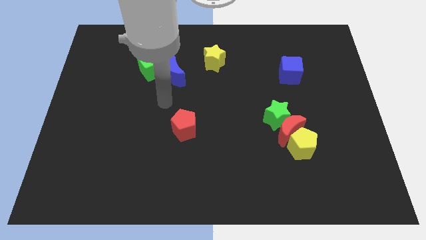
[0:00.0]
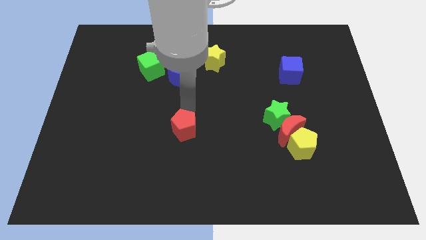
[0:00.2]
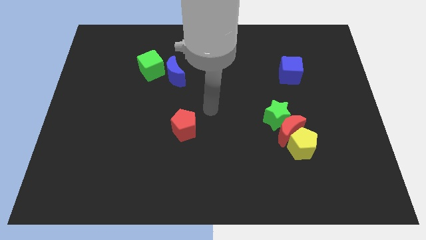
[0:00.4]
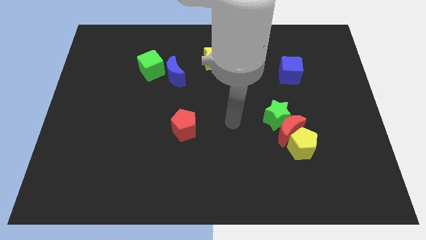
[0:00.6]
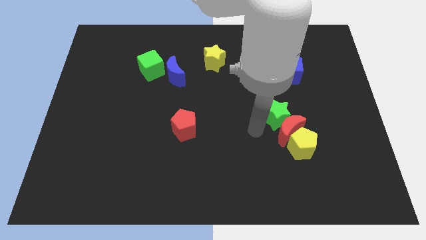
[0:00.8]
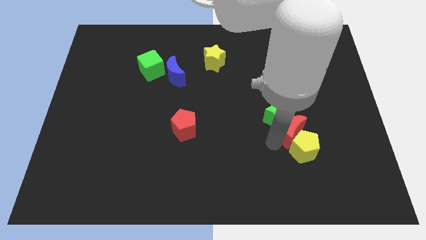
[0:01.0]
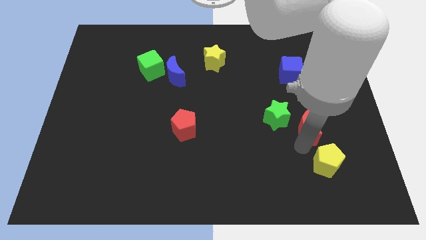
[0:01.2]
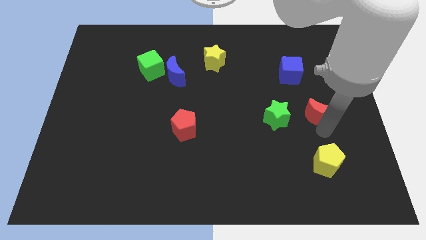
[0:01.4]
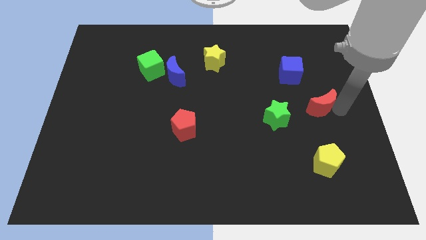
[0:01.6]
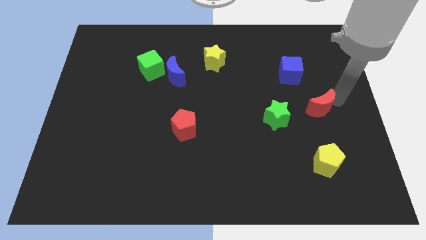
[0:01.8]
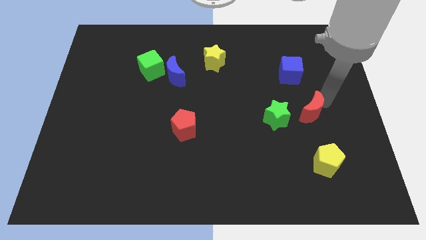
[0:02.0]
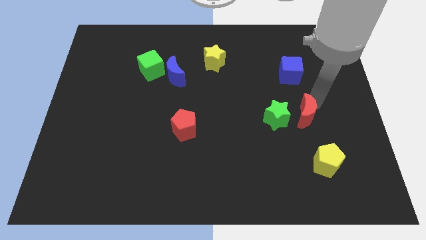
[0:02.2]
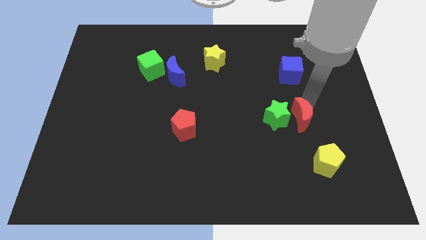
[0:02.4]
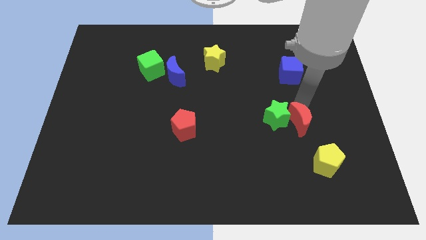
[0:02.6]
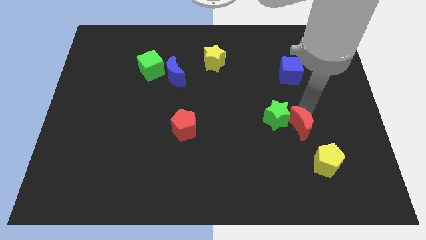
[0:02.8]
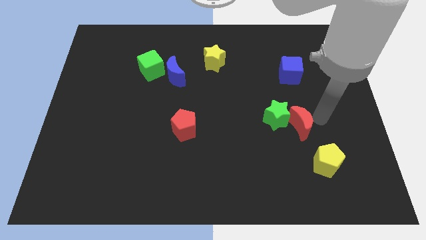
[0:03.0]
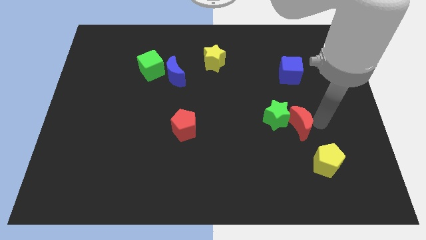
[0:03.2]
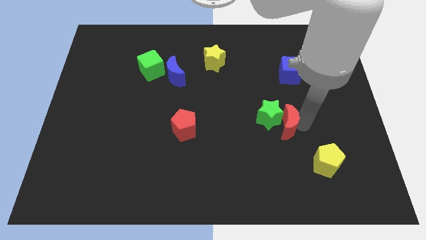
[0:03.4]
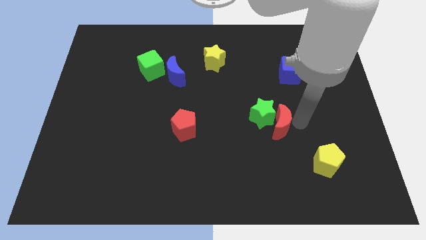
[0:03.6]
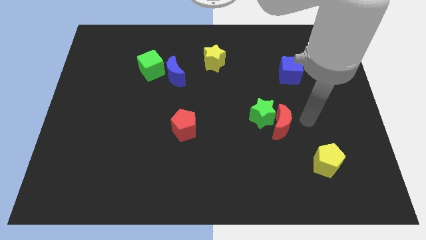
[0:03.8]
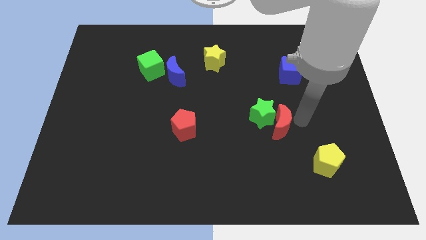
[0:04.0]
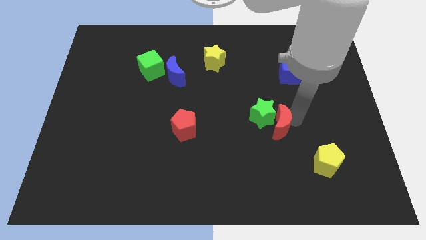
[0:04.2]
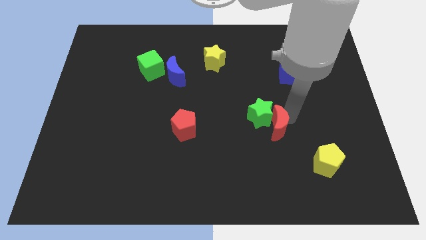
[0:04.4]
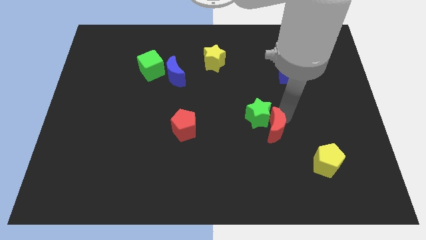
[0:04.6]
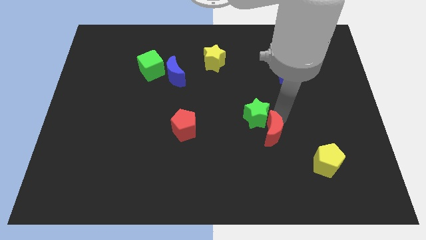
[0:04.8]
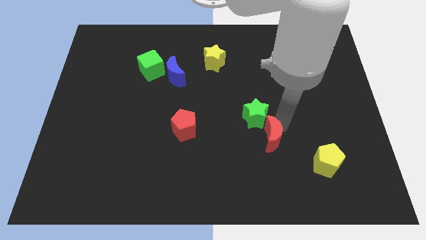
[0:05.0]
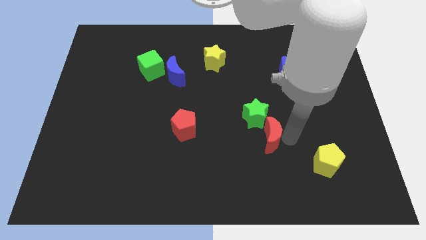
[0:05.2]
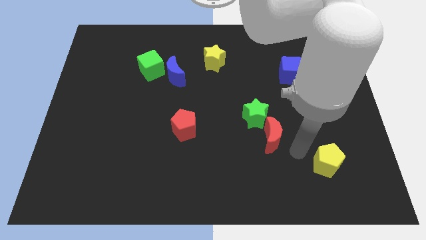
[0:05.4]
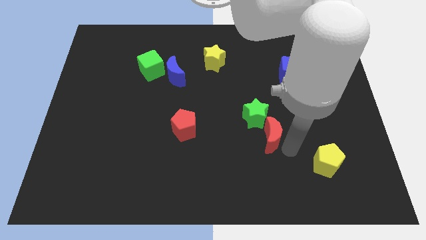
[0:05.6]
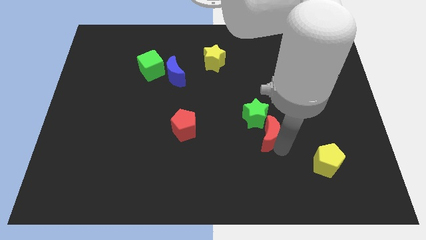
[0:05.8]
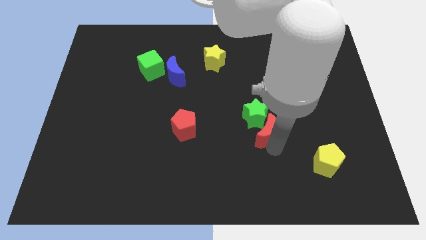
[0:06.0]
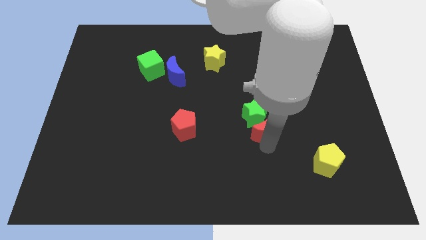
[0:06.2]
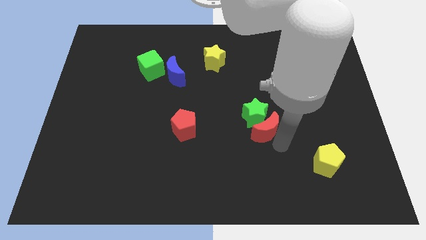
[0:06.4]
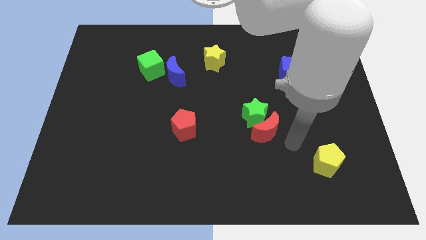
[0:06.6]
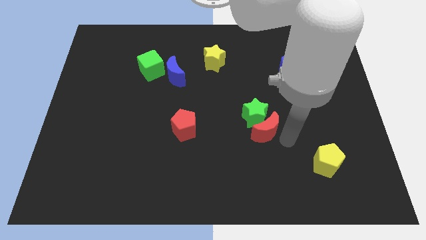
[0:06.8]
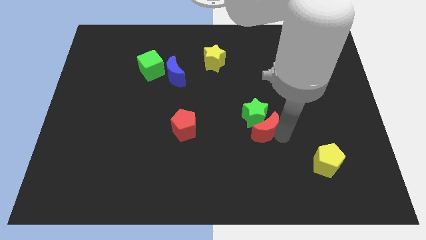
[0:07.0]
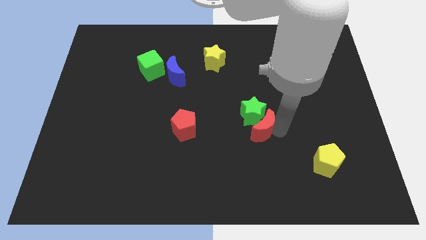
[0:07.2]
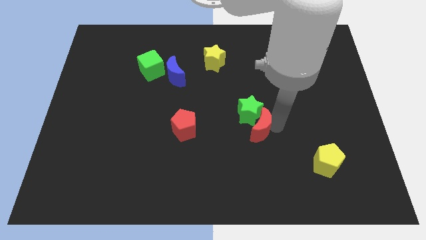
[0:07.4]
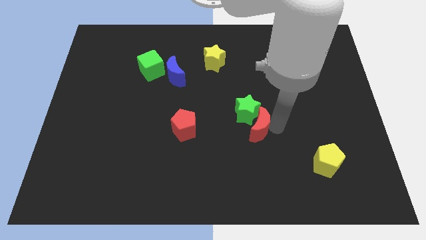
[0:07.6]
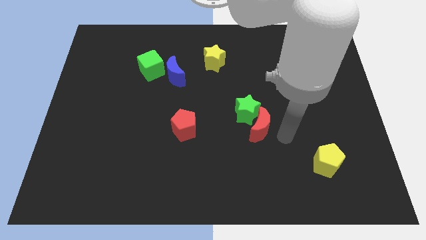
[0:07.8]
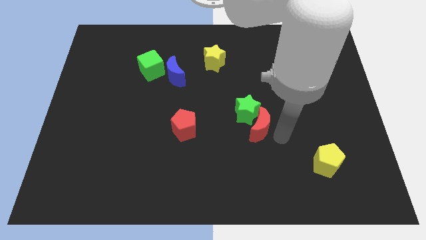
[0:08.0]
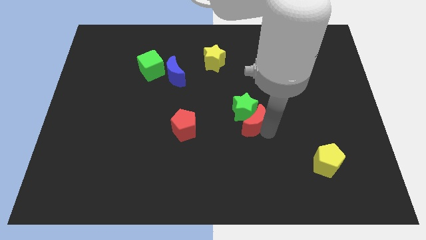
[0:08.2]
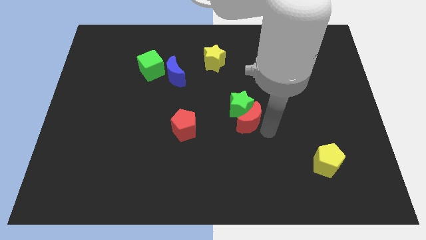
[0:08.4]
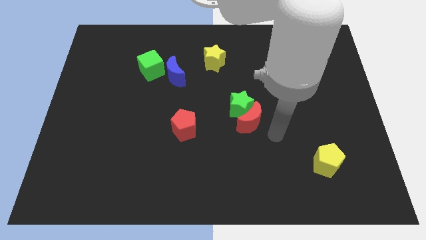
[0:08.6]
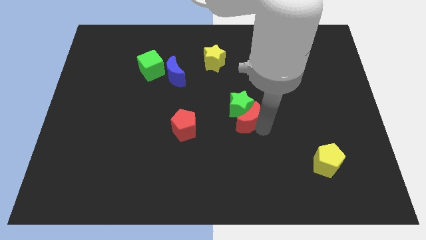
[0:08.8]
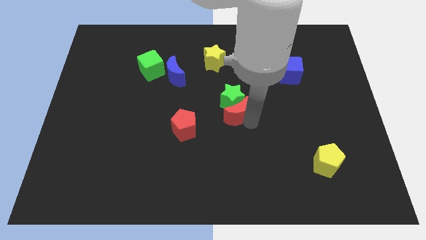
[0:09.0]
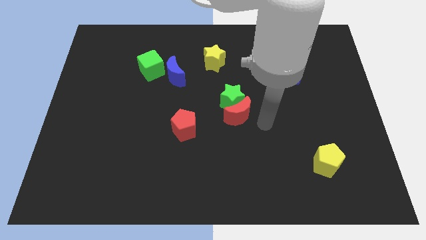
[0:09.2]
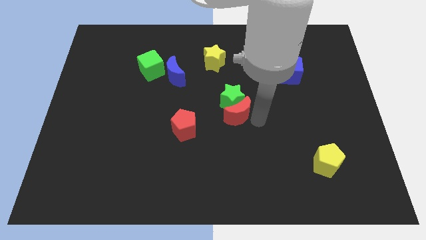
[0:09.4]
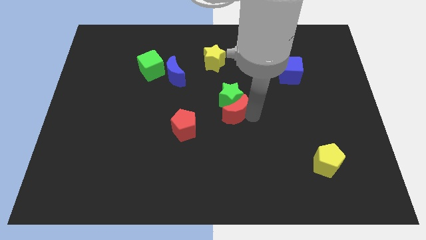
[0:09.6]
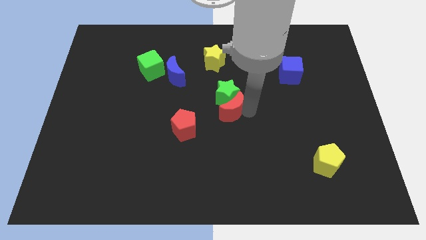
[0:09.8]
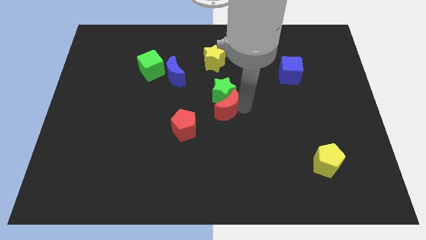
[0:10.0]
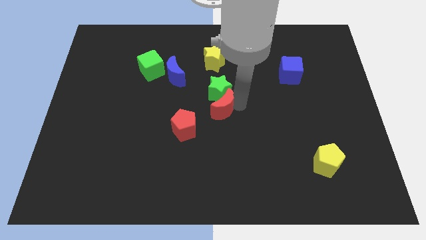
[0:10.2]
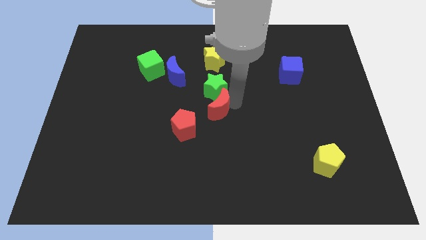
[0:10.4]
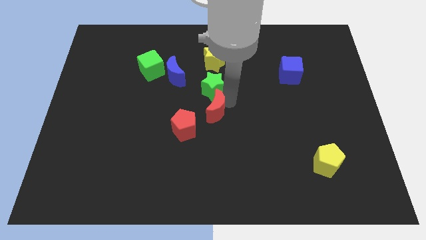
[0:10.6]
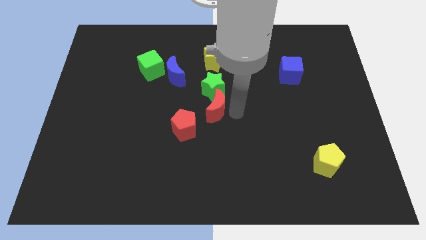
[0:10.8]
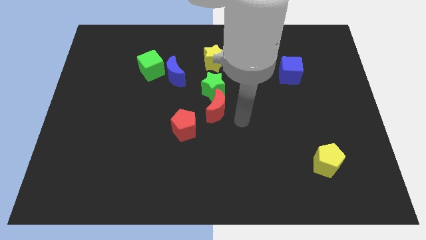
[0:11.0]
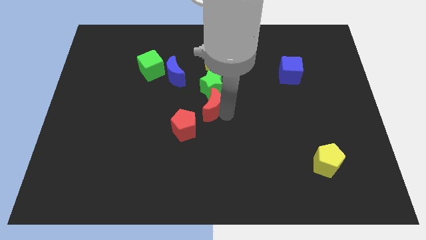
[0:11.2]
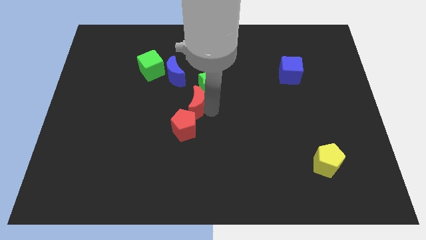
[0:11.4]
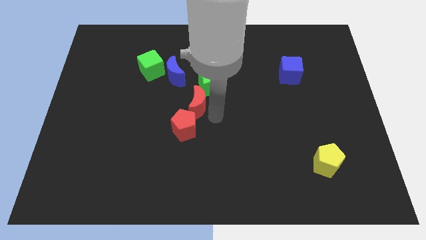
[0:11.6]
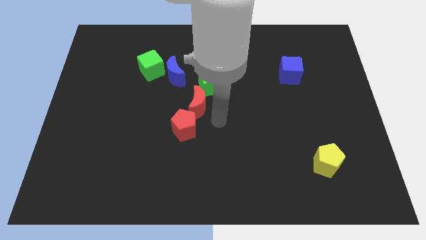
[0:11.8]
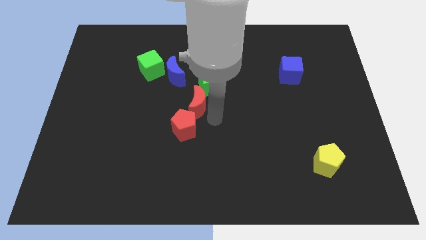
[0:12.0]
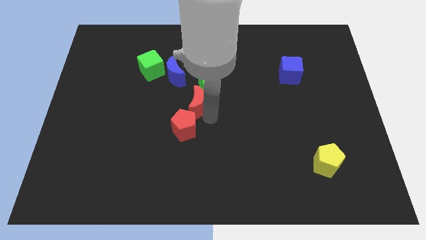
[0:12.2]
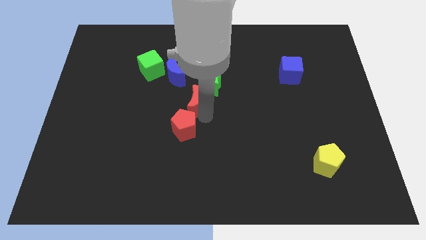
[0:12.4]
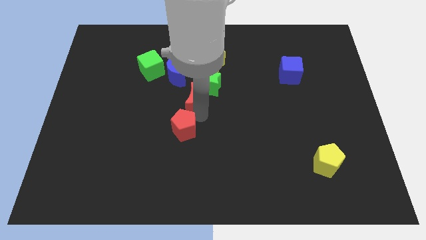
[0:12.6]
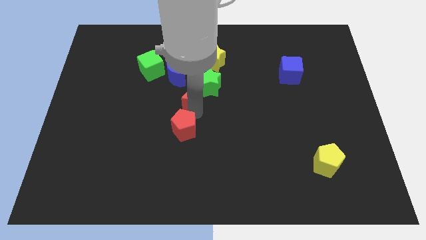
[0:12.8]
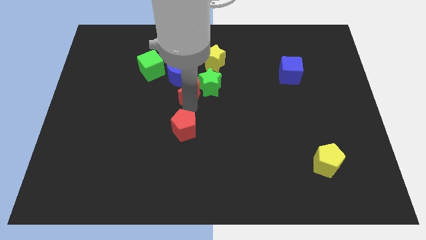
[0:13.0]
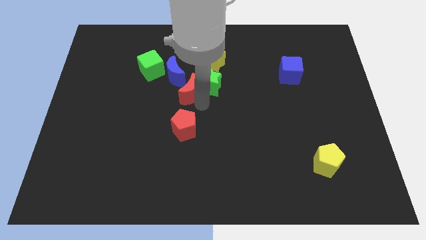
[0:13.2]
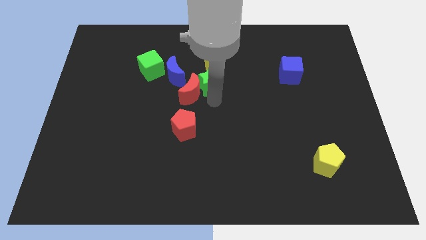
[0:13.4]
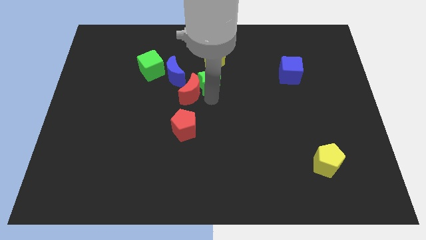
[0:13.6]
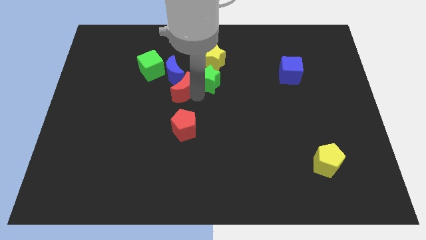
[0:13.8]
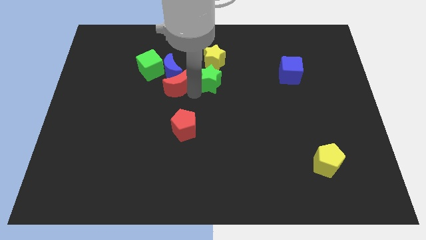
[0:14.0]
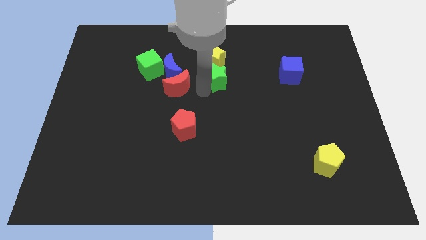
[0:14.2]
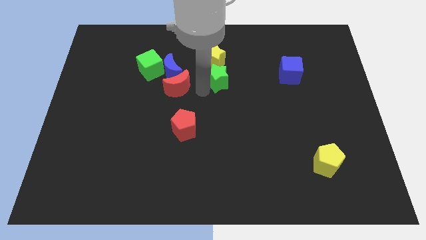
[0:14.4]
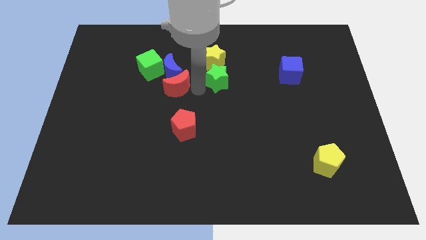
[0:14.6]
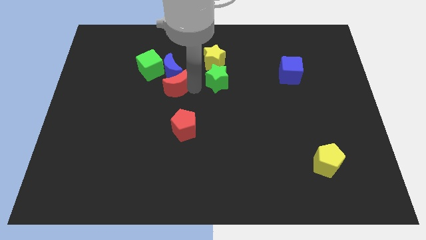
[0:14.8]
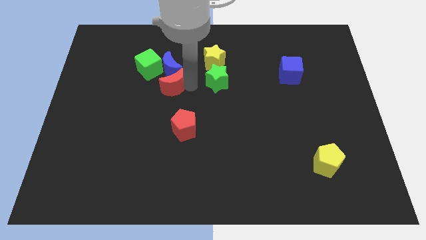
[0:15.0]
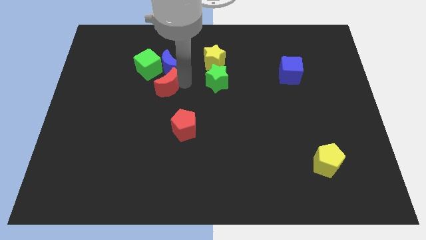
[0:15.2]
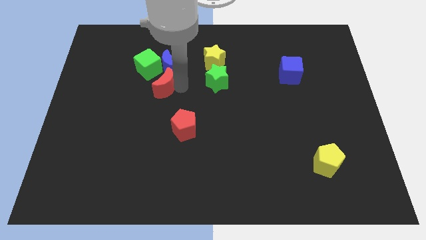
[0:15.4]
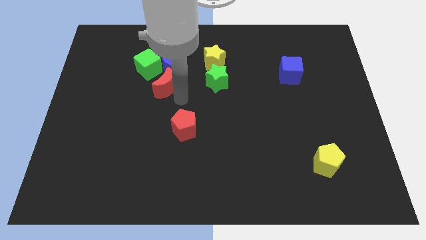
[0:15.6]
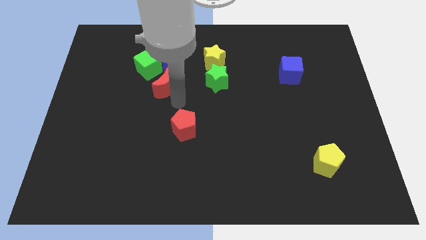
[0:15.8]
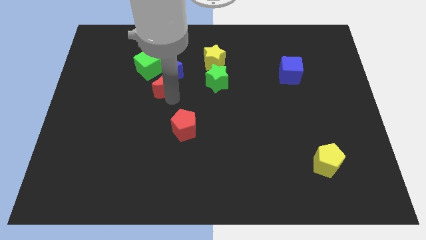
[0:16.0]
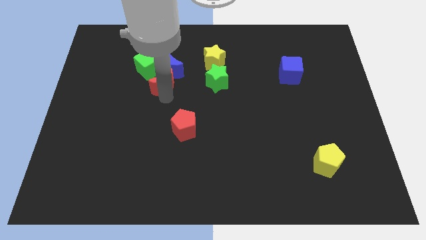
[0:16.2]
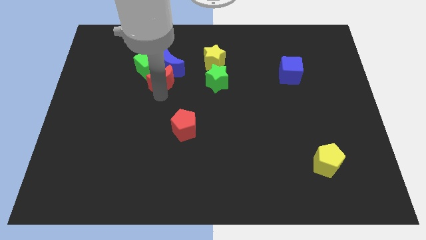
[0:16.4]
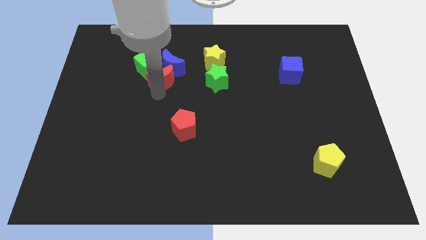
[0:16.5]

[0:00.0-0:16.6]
slide the red moon close to the green cube
